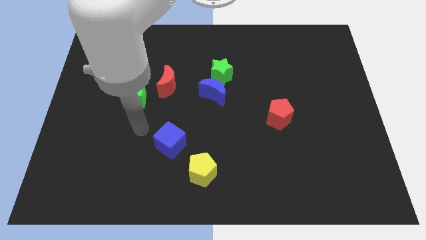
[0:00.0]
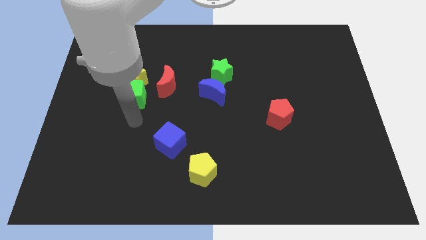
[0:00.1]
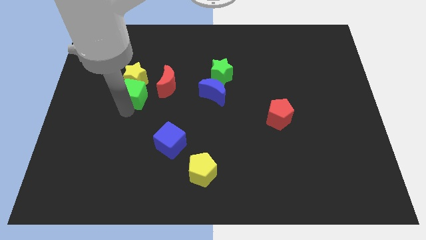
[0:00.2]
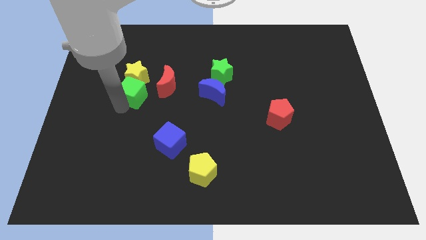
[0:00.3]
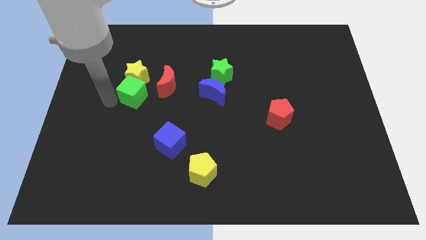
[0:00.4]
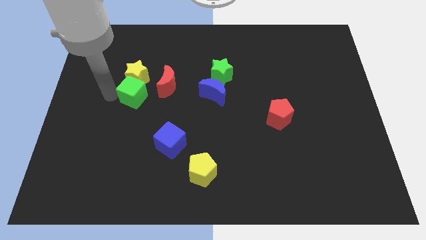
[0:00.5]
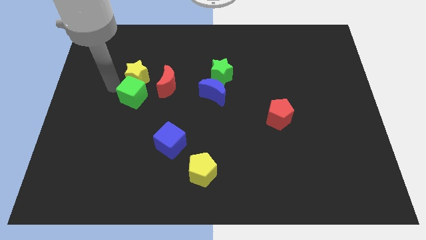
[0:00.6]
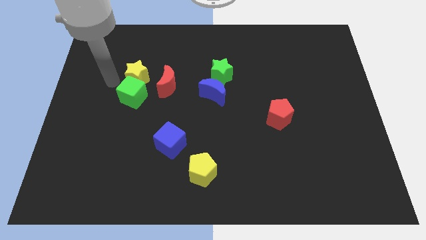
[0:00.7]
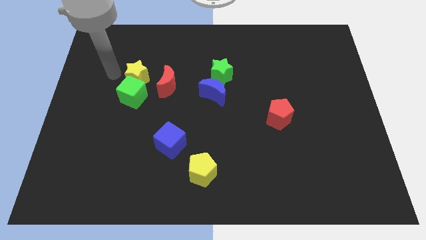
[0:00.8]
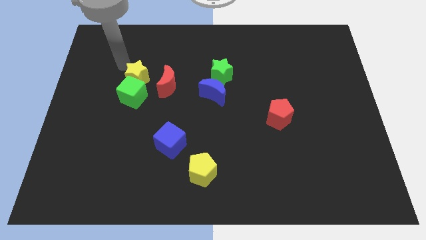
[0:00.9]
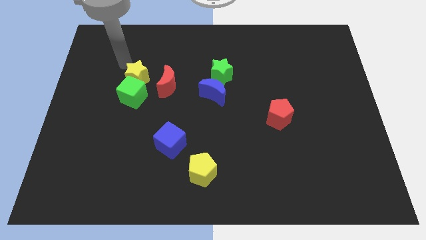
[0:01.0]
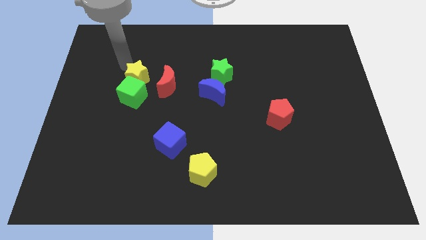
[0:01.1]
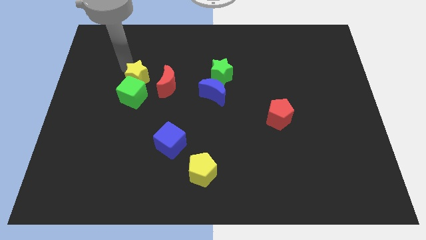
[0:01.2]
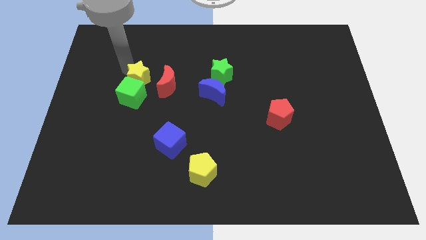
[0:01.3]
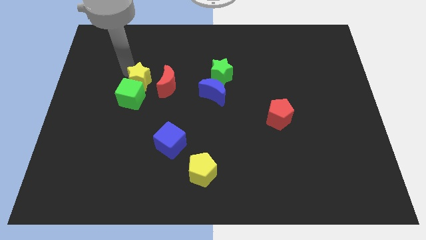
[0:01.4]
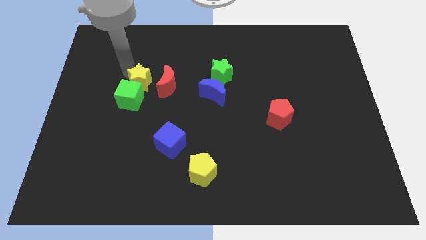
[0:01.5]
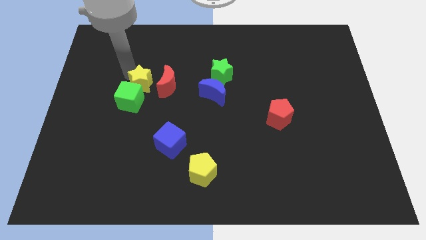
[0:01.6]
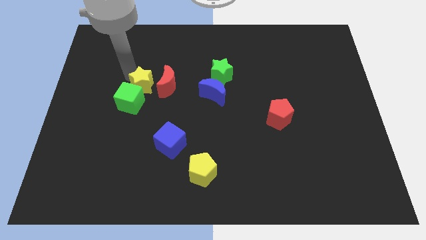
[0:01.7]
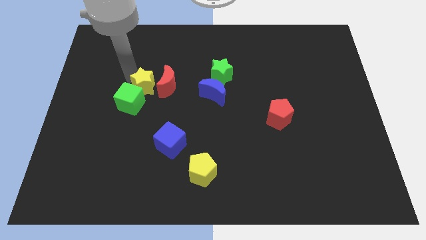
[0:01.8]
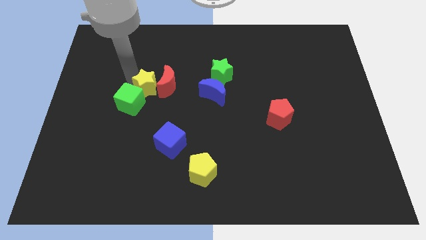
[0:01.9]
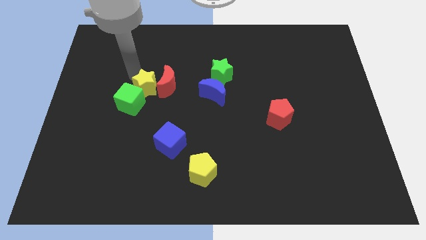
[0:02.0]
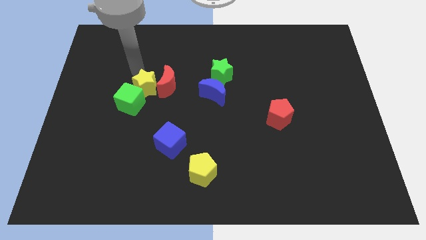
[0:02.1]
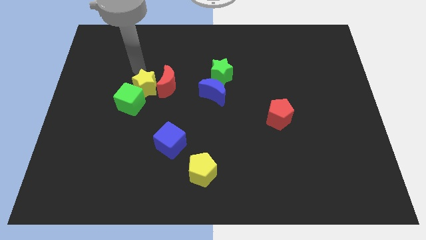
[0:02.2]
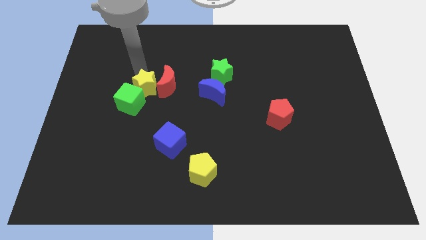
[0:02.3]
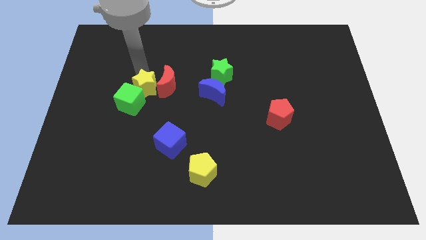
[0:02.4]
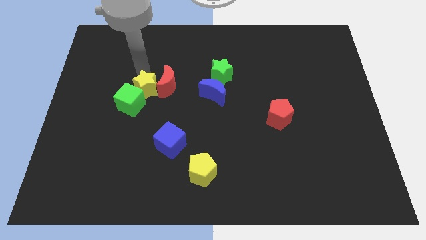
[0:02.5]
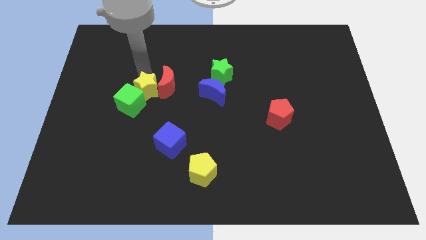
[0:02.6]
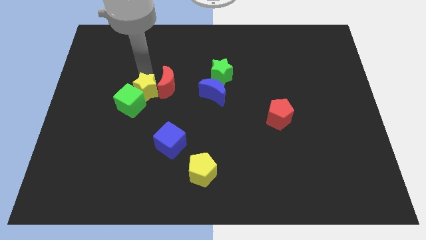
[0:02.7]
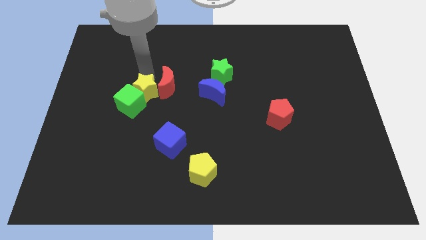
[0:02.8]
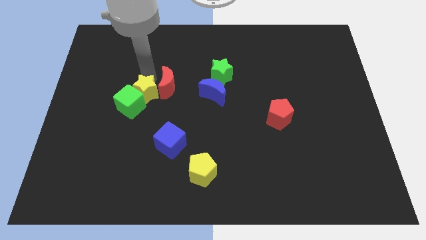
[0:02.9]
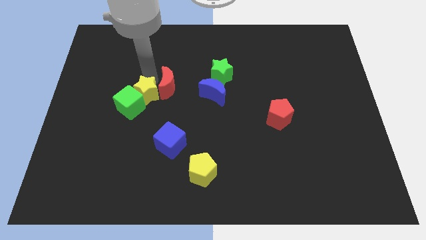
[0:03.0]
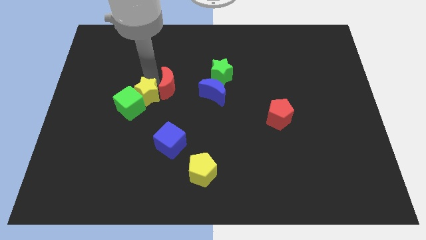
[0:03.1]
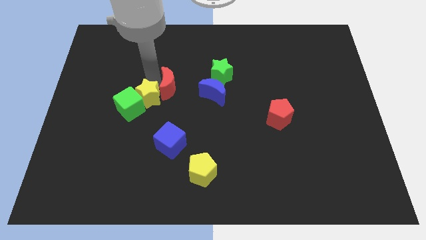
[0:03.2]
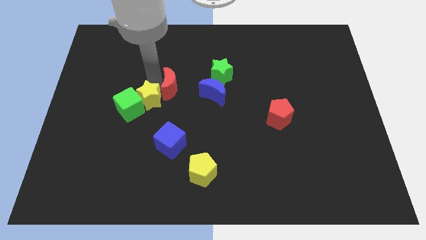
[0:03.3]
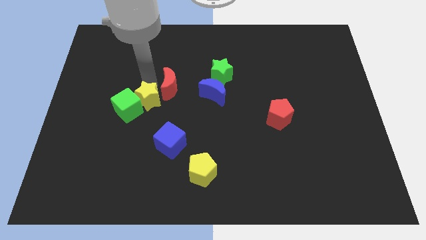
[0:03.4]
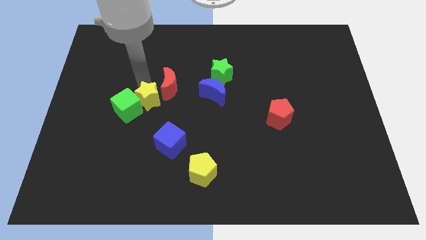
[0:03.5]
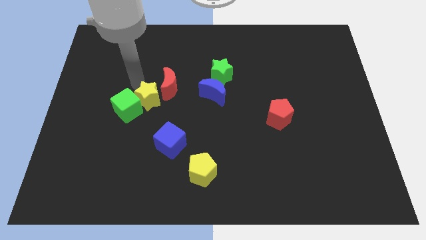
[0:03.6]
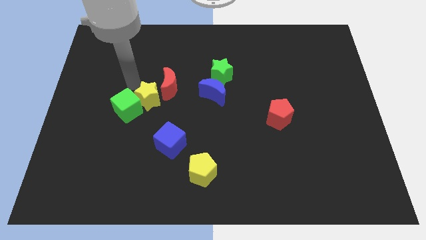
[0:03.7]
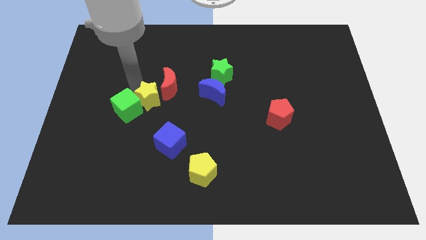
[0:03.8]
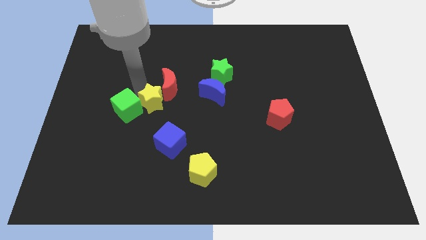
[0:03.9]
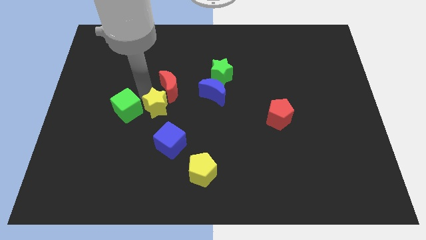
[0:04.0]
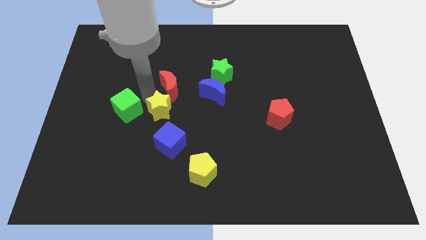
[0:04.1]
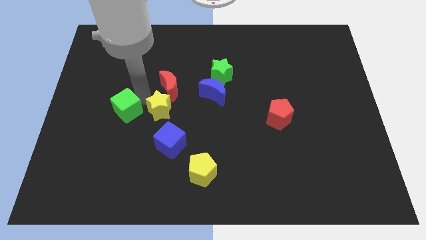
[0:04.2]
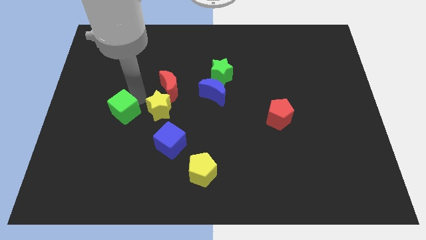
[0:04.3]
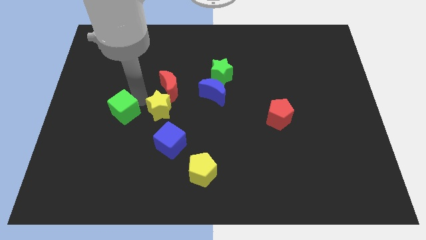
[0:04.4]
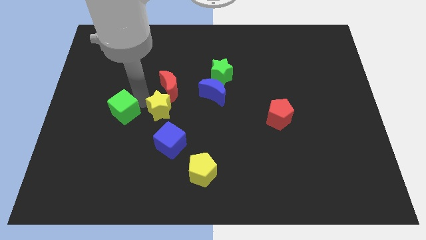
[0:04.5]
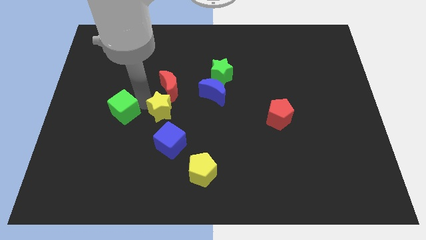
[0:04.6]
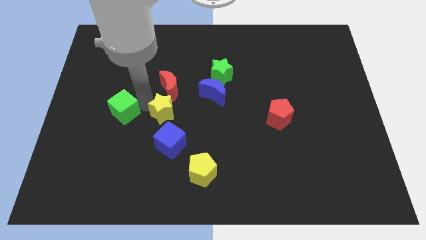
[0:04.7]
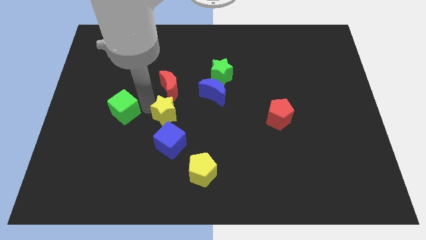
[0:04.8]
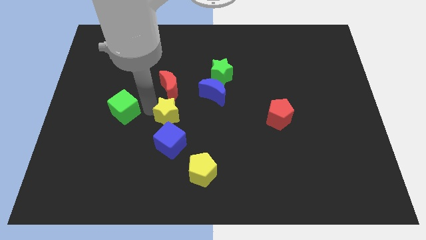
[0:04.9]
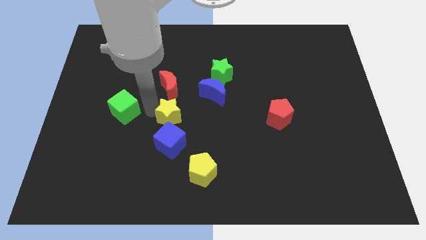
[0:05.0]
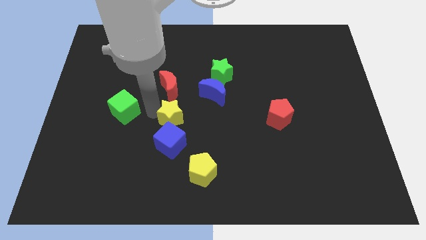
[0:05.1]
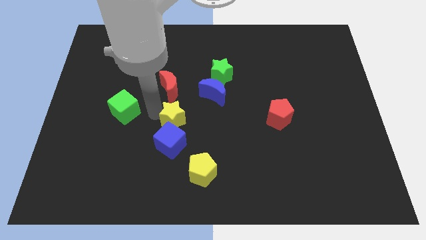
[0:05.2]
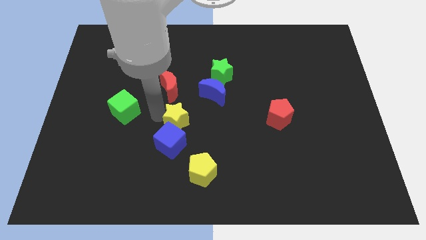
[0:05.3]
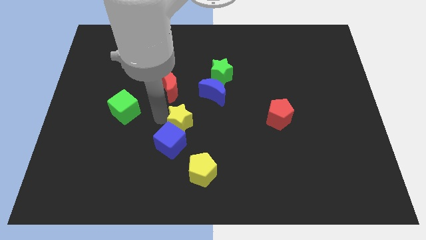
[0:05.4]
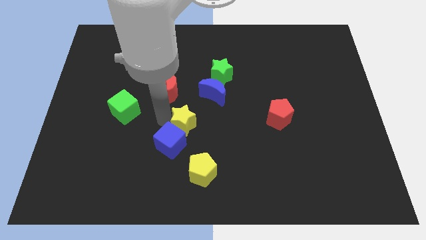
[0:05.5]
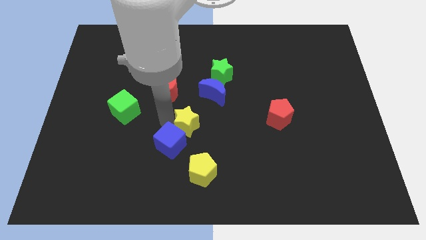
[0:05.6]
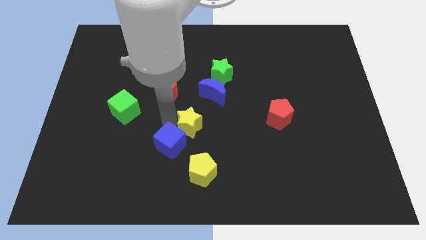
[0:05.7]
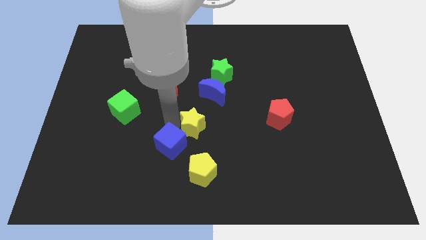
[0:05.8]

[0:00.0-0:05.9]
move the yellow star to the bottom of the blue moon
